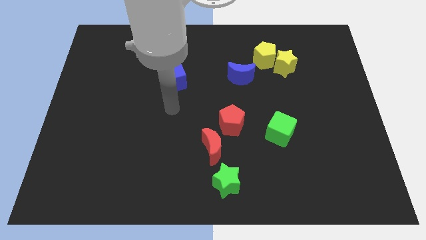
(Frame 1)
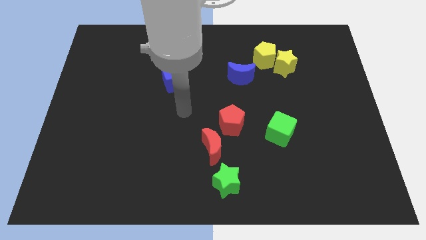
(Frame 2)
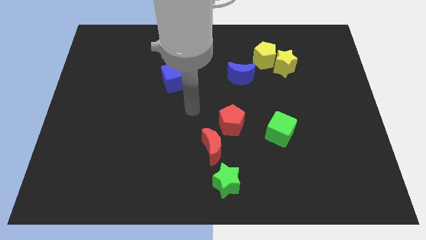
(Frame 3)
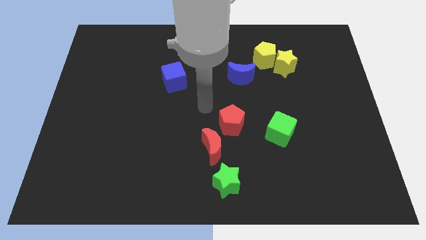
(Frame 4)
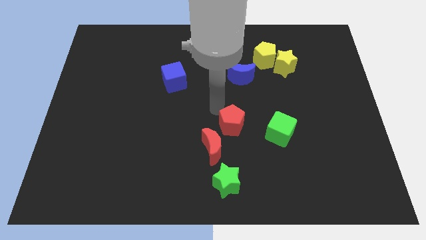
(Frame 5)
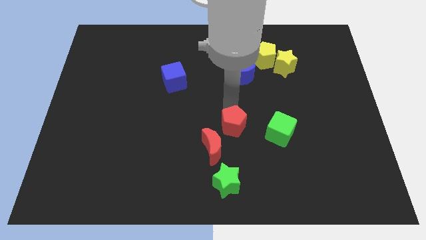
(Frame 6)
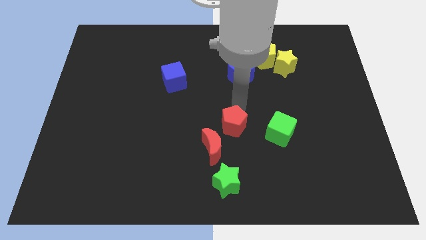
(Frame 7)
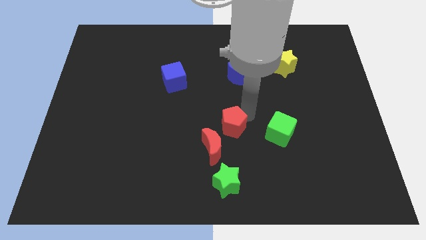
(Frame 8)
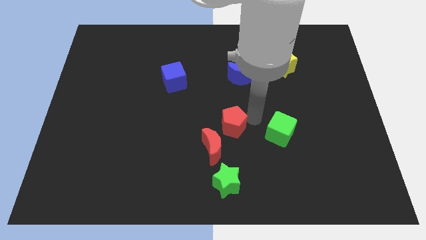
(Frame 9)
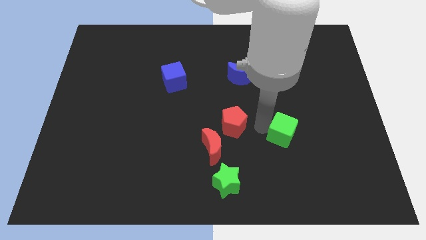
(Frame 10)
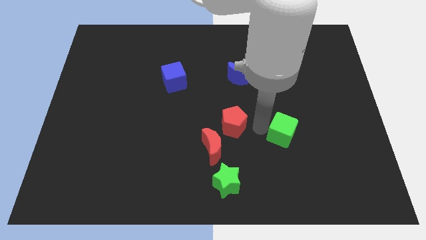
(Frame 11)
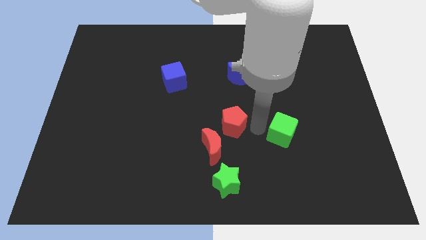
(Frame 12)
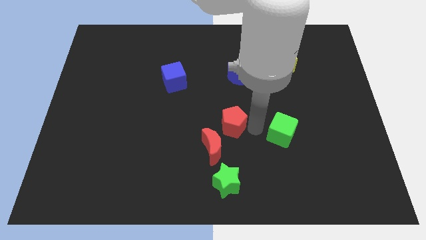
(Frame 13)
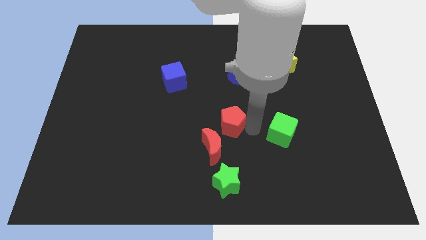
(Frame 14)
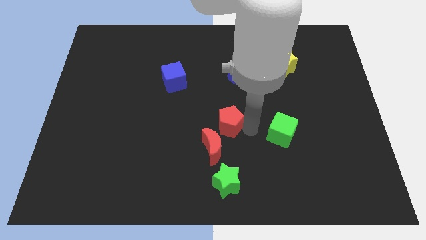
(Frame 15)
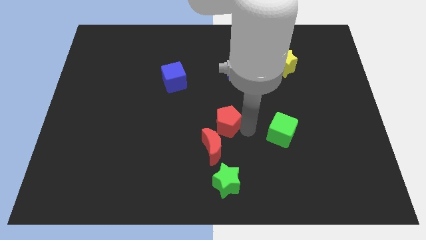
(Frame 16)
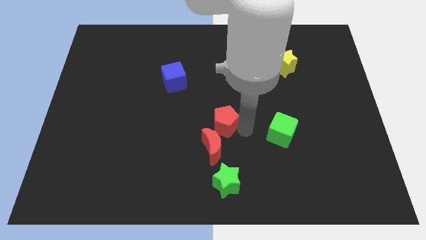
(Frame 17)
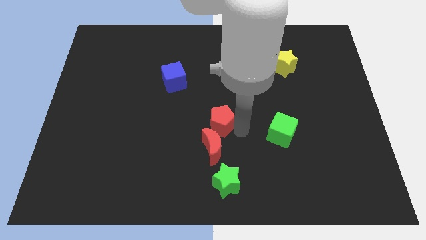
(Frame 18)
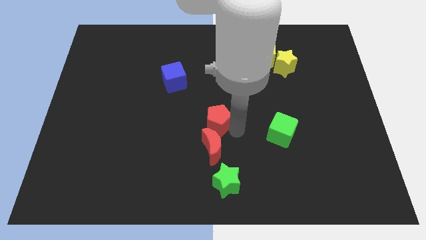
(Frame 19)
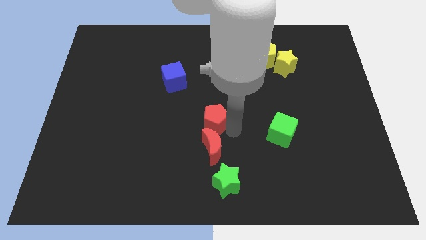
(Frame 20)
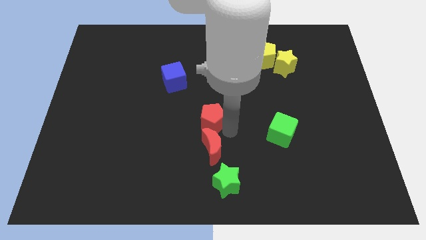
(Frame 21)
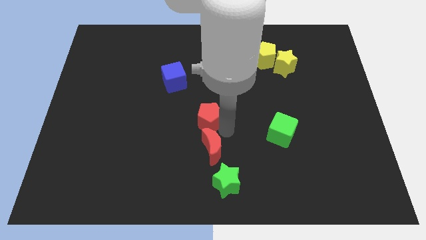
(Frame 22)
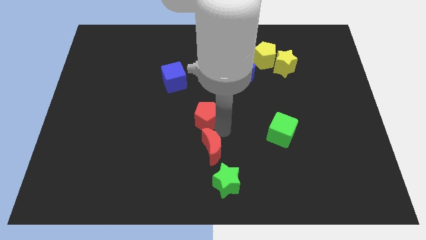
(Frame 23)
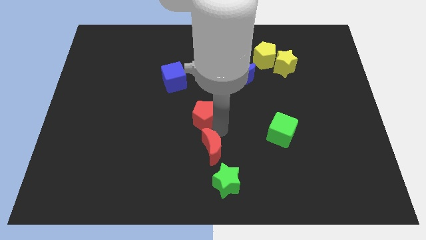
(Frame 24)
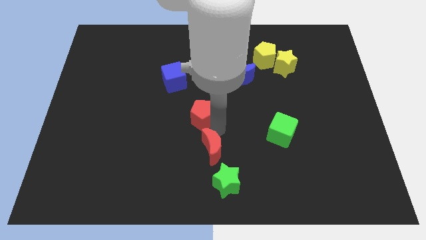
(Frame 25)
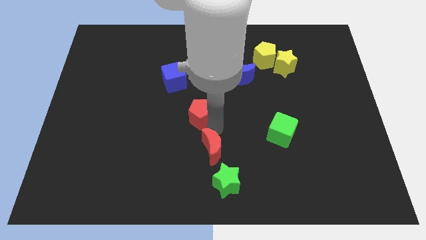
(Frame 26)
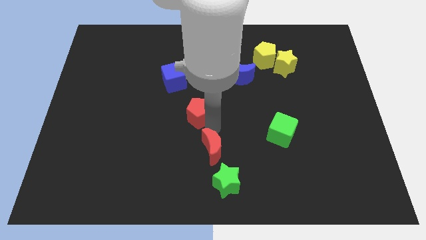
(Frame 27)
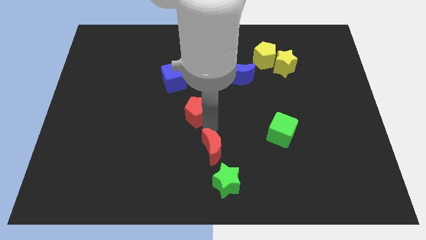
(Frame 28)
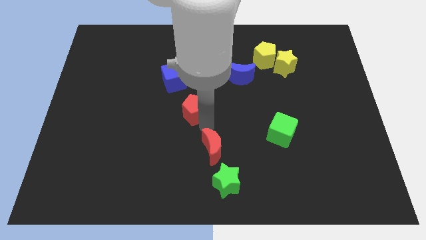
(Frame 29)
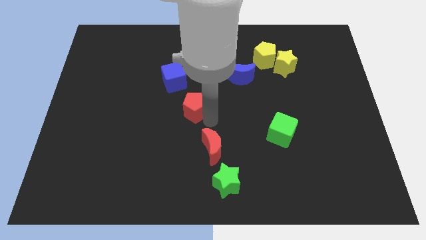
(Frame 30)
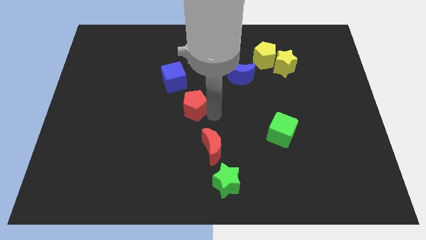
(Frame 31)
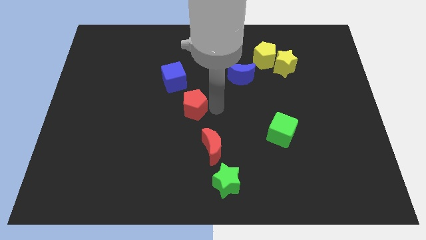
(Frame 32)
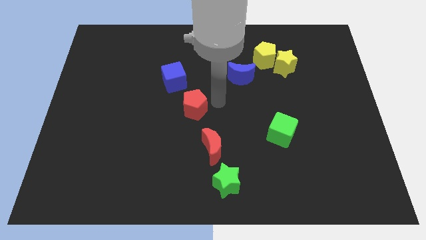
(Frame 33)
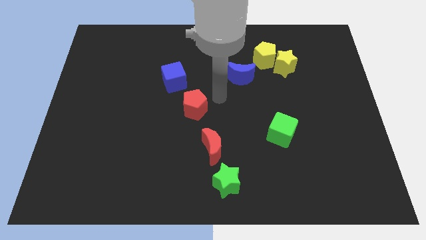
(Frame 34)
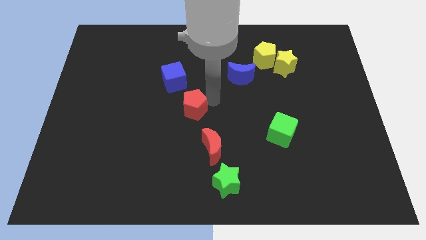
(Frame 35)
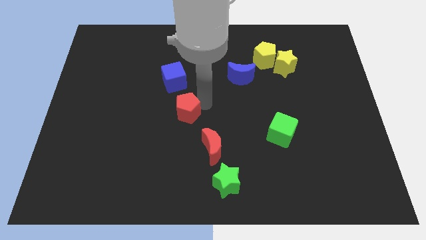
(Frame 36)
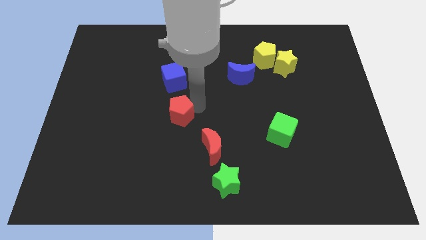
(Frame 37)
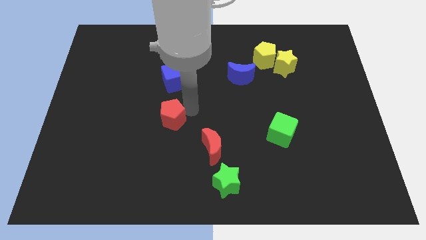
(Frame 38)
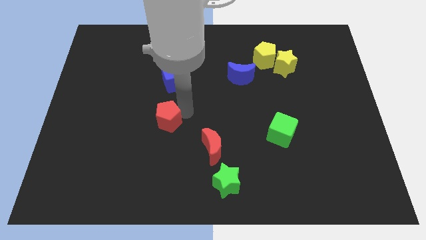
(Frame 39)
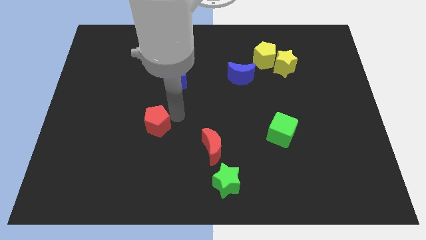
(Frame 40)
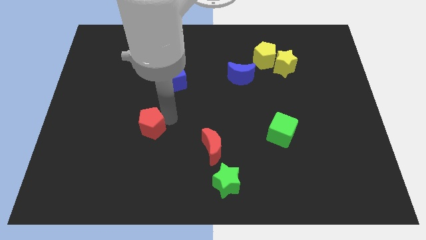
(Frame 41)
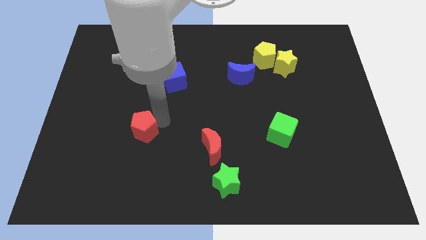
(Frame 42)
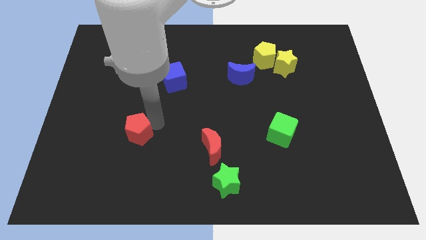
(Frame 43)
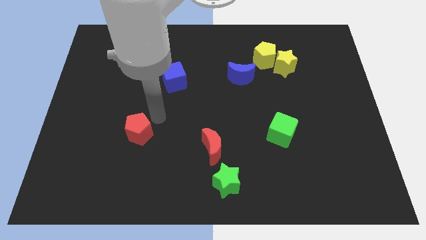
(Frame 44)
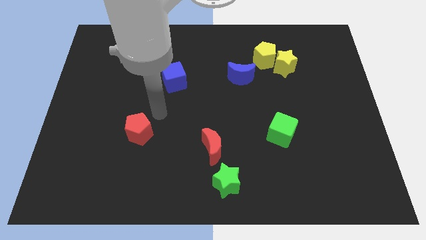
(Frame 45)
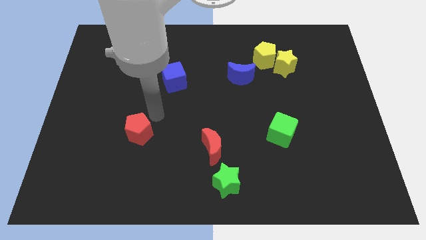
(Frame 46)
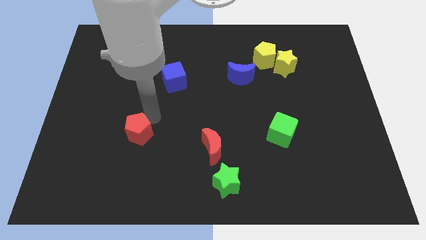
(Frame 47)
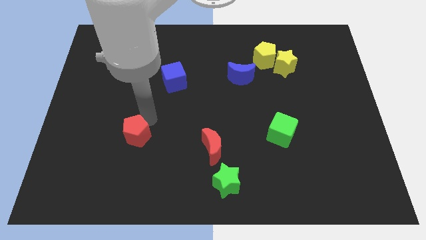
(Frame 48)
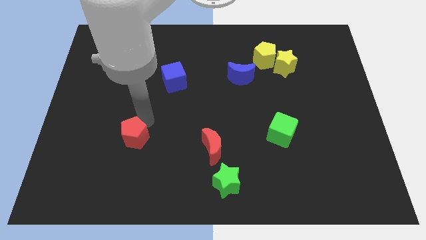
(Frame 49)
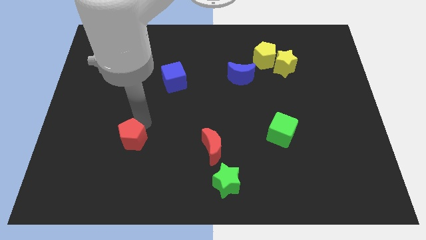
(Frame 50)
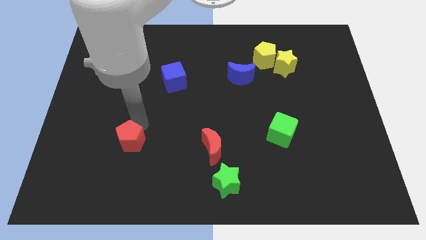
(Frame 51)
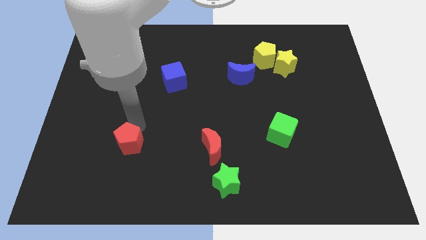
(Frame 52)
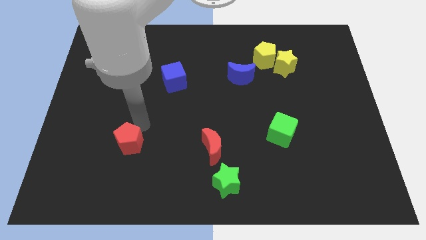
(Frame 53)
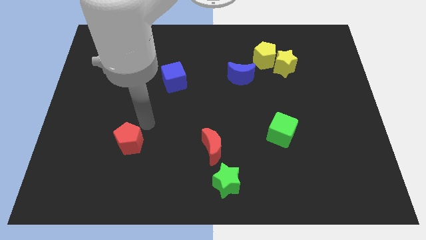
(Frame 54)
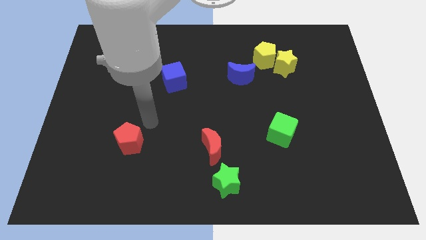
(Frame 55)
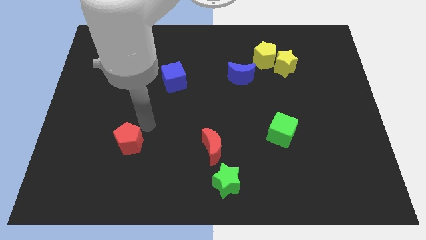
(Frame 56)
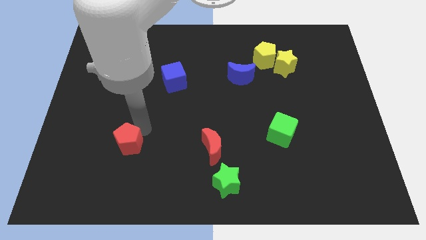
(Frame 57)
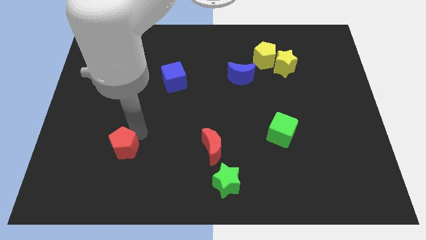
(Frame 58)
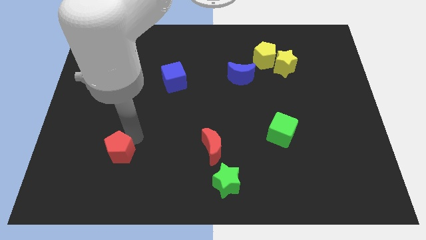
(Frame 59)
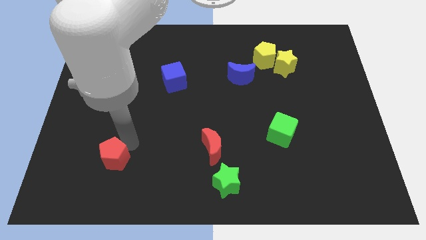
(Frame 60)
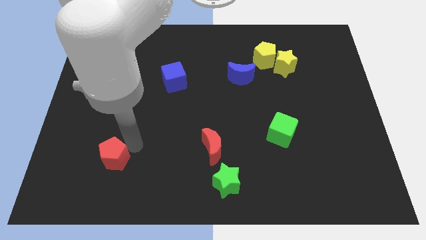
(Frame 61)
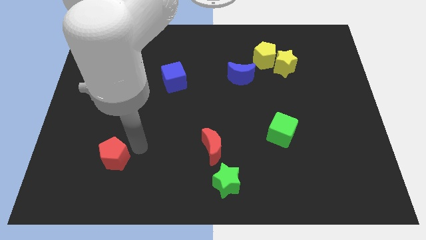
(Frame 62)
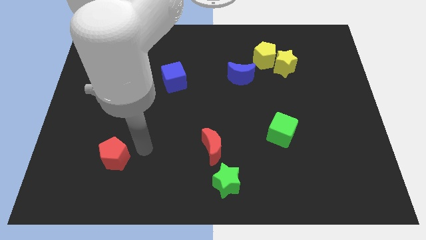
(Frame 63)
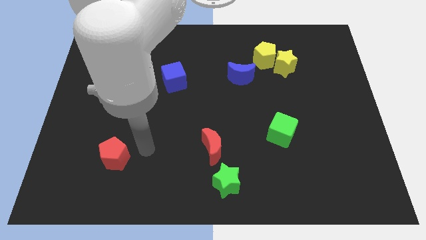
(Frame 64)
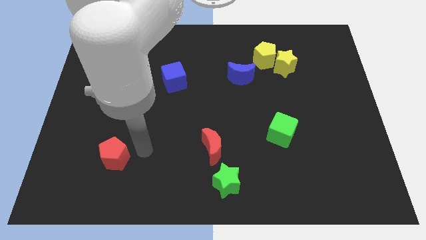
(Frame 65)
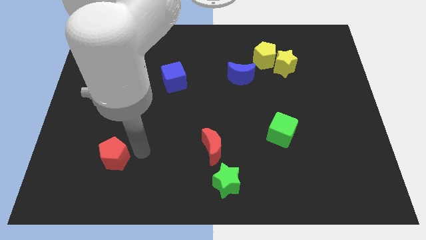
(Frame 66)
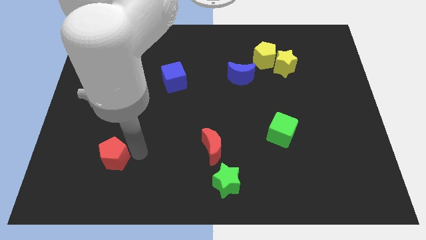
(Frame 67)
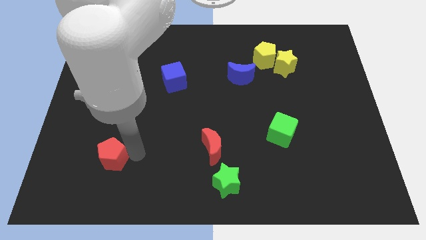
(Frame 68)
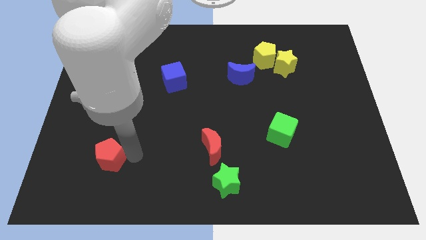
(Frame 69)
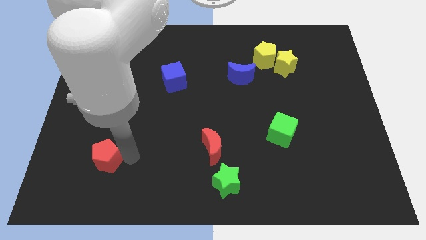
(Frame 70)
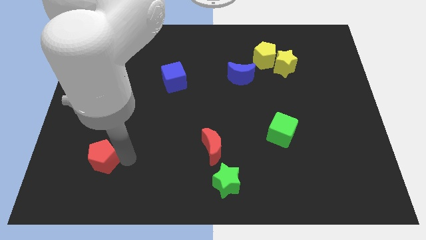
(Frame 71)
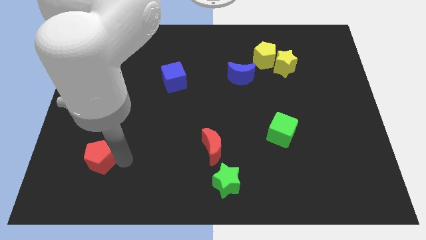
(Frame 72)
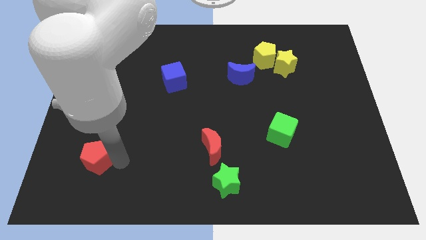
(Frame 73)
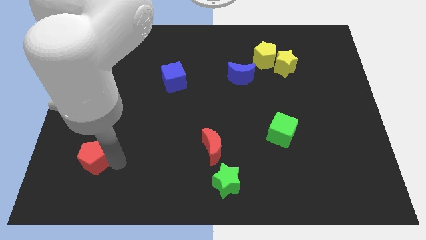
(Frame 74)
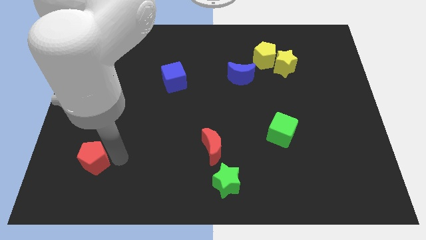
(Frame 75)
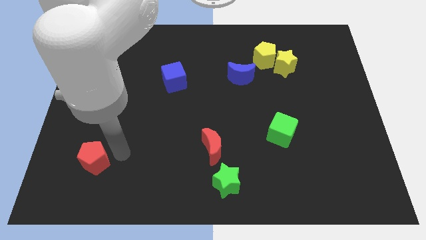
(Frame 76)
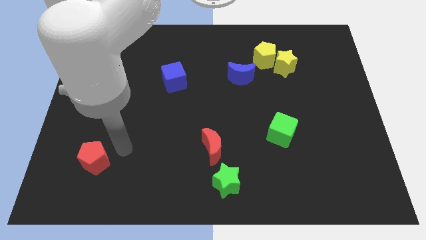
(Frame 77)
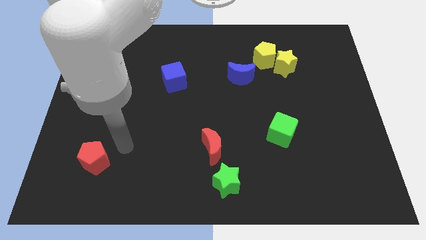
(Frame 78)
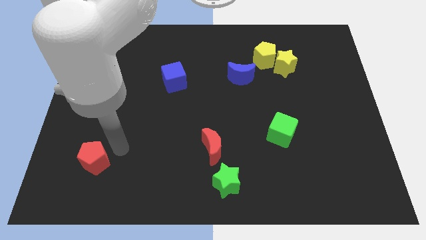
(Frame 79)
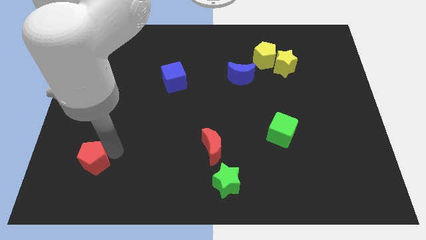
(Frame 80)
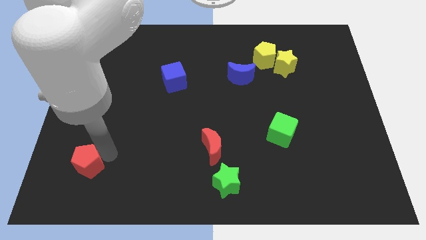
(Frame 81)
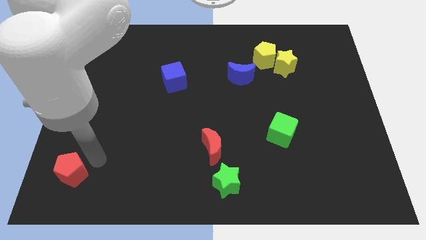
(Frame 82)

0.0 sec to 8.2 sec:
push the red pentagon to the bottom left
